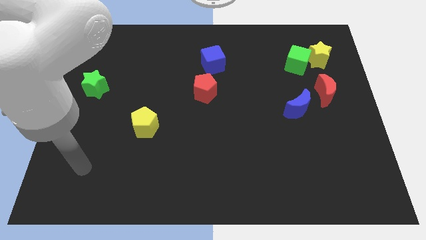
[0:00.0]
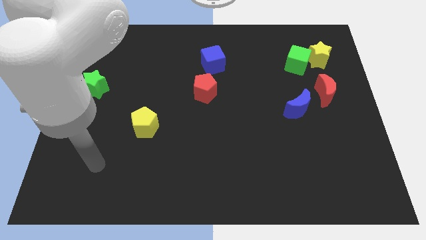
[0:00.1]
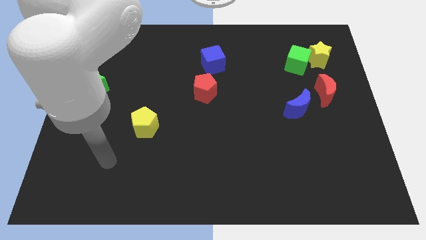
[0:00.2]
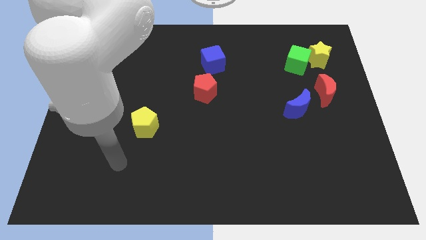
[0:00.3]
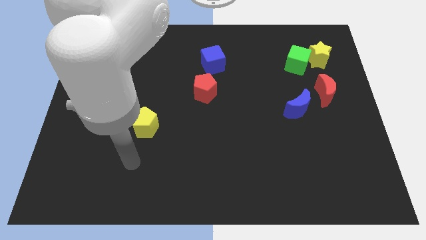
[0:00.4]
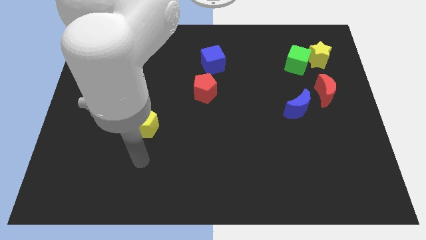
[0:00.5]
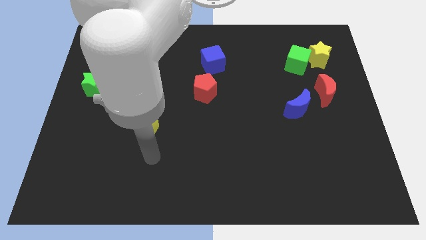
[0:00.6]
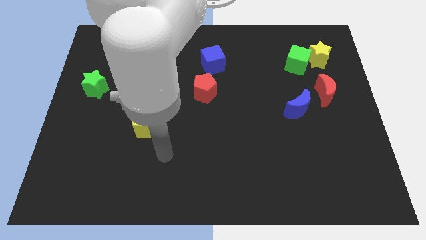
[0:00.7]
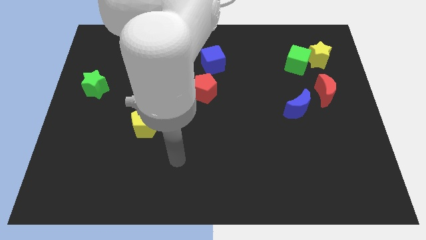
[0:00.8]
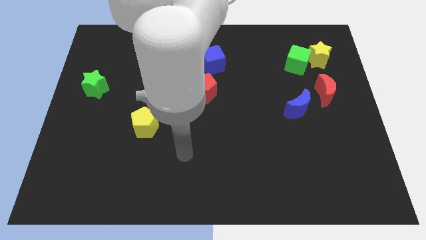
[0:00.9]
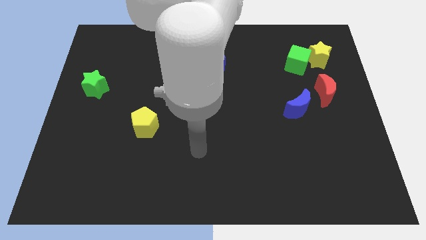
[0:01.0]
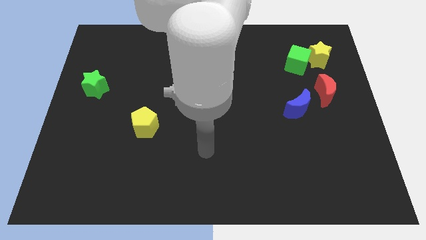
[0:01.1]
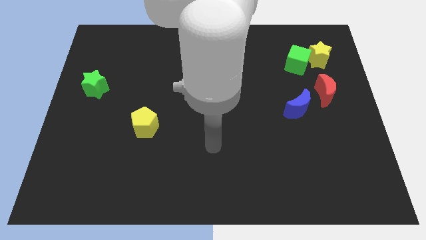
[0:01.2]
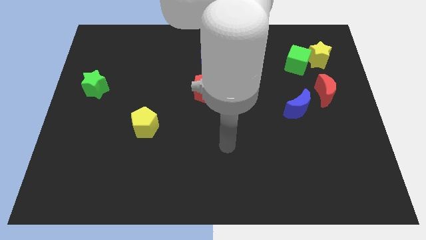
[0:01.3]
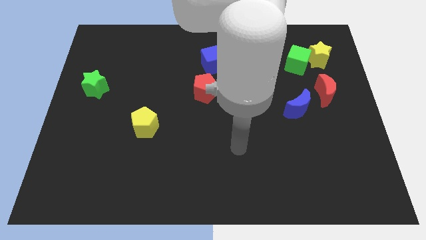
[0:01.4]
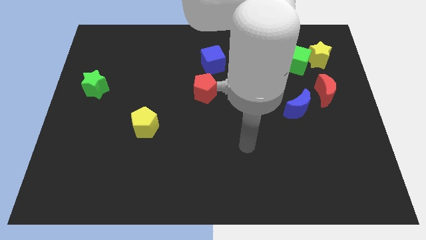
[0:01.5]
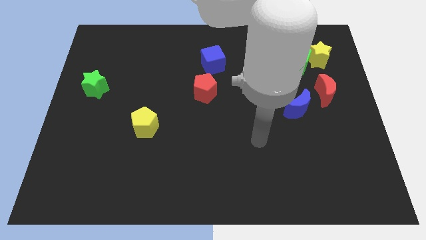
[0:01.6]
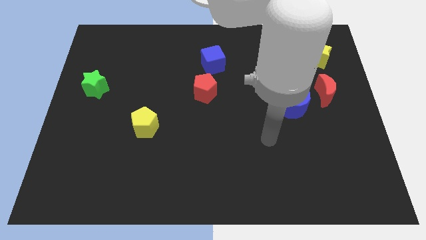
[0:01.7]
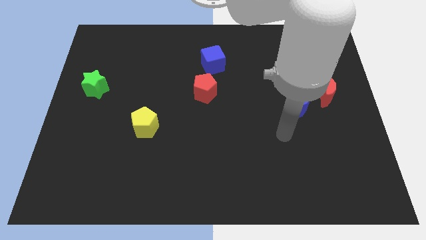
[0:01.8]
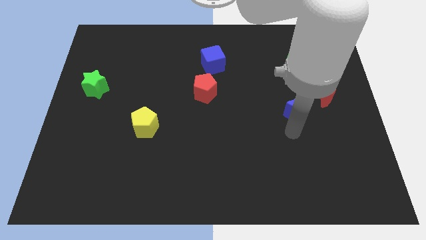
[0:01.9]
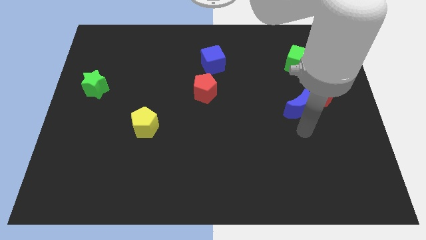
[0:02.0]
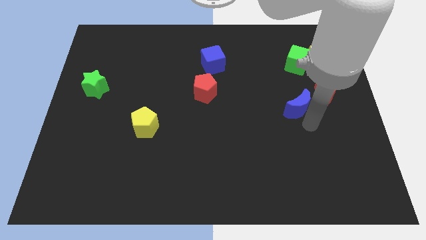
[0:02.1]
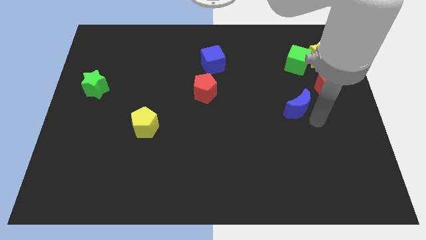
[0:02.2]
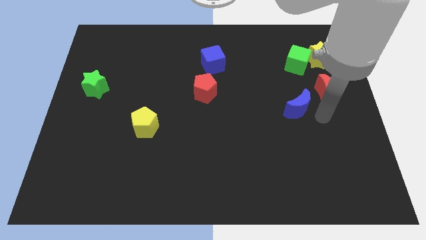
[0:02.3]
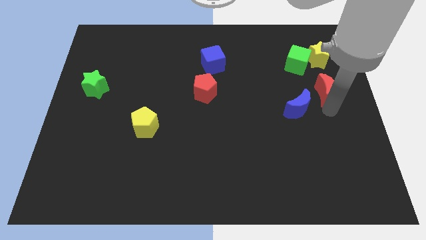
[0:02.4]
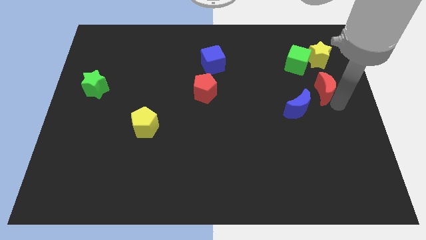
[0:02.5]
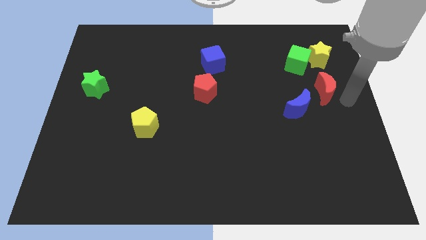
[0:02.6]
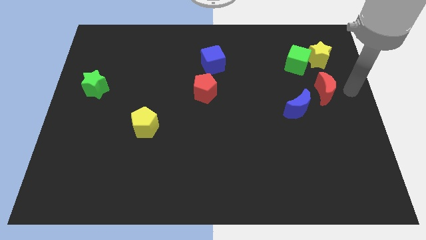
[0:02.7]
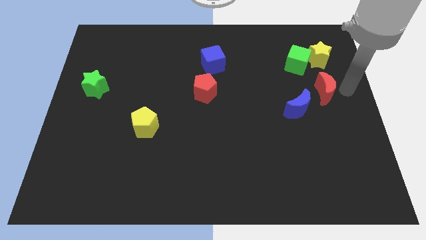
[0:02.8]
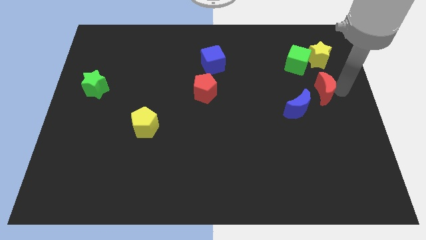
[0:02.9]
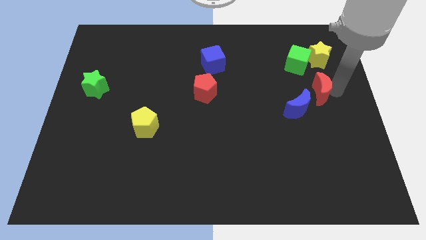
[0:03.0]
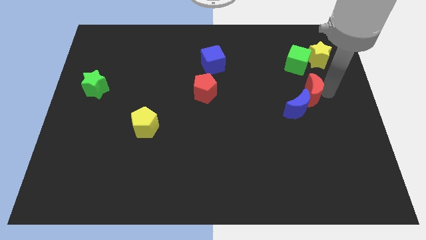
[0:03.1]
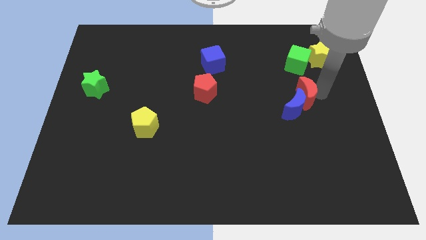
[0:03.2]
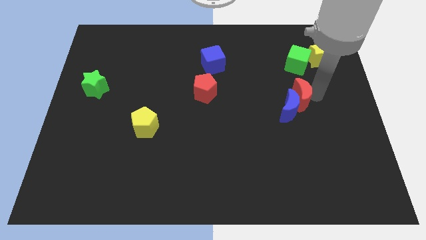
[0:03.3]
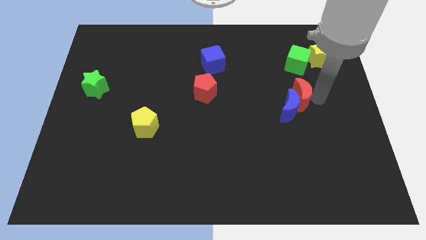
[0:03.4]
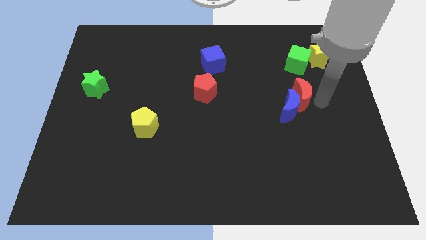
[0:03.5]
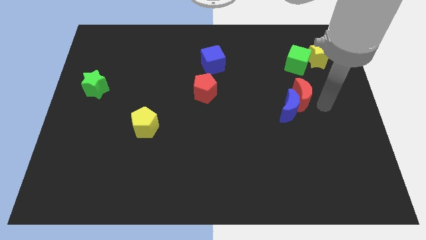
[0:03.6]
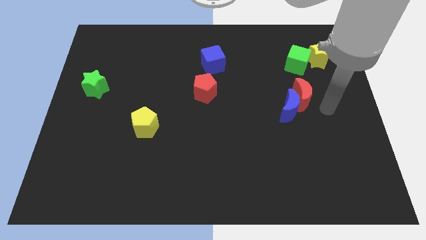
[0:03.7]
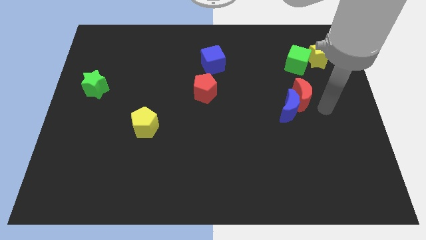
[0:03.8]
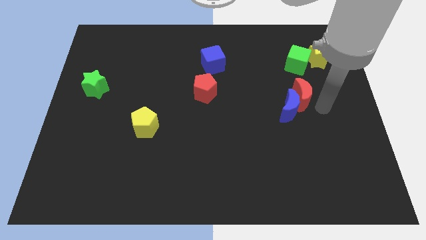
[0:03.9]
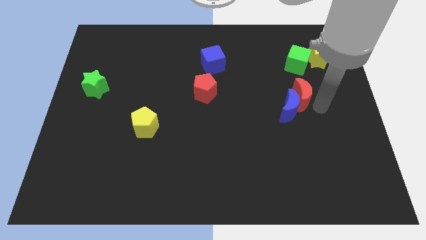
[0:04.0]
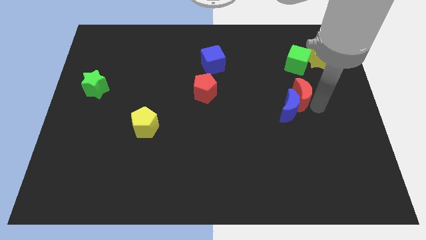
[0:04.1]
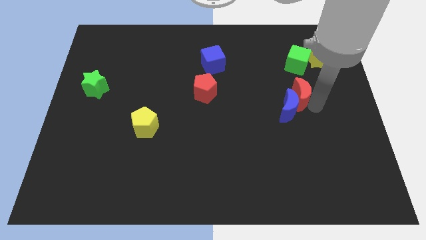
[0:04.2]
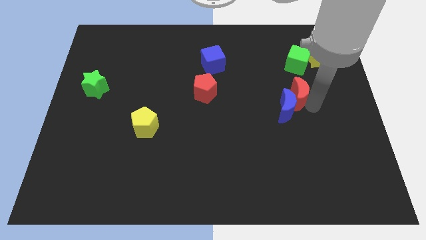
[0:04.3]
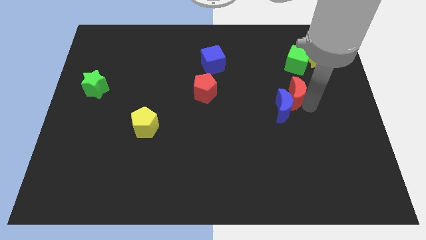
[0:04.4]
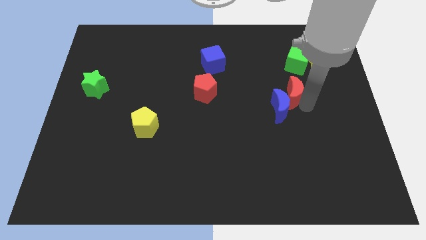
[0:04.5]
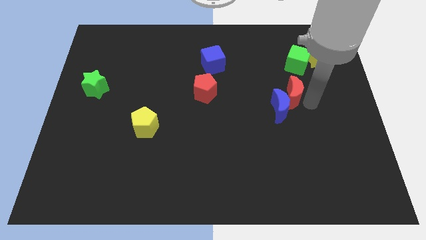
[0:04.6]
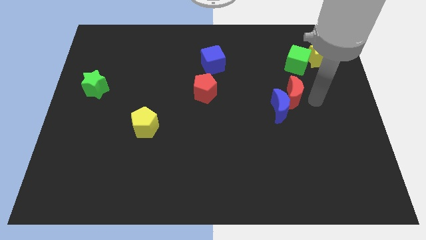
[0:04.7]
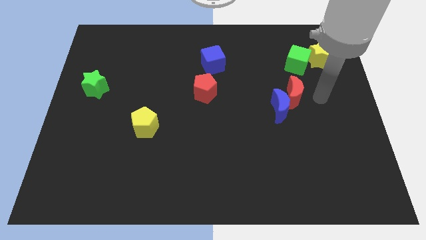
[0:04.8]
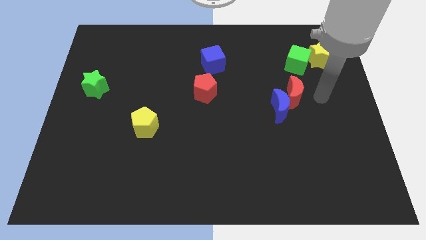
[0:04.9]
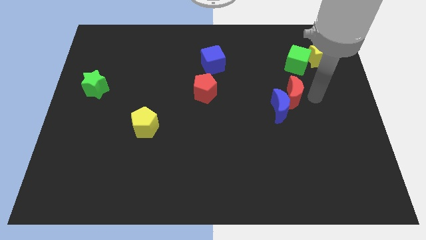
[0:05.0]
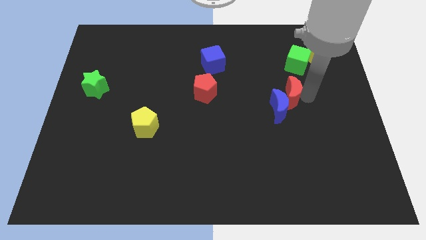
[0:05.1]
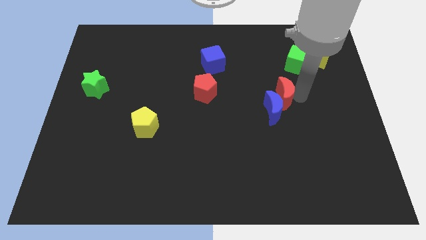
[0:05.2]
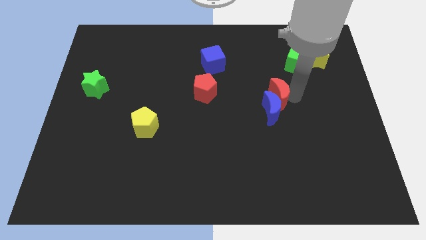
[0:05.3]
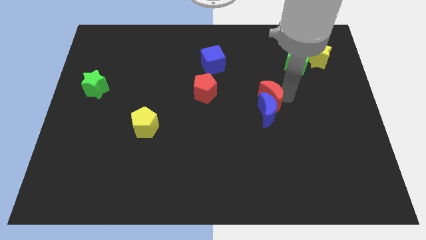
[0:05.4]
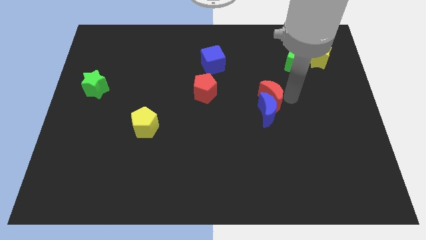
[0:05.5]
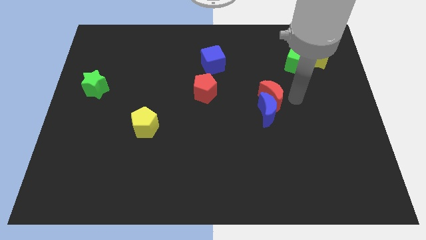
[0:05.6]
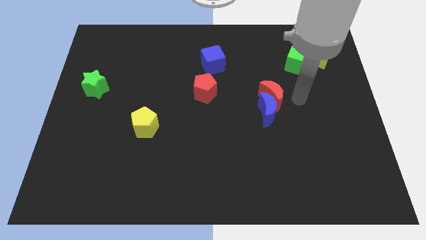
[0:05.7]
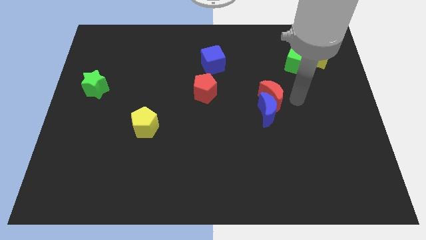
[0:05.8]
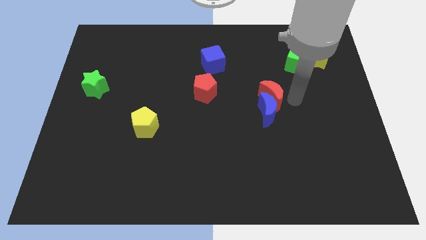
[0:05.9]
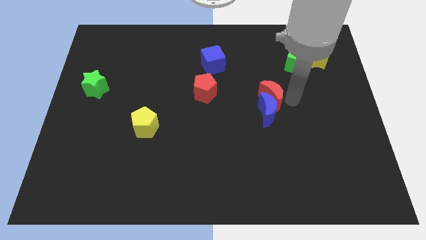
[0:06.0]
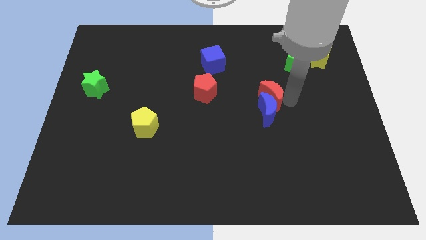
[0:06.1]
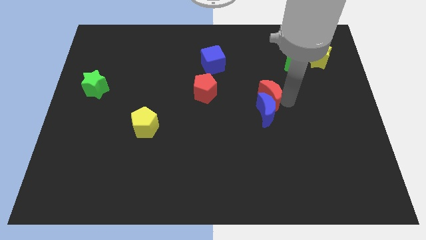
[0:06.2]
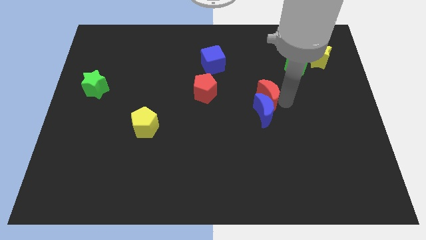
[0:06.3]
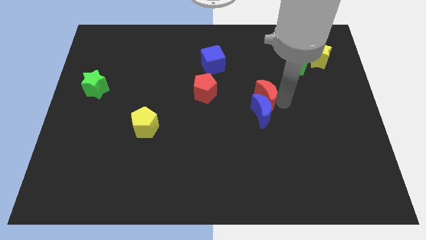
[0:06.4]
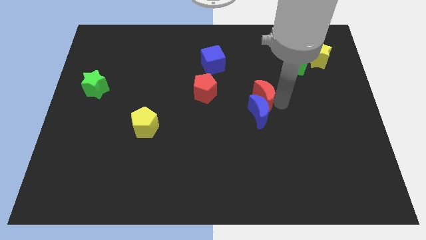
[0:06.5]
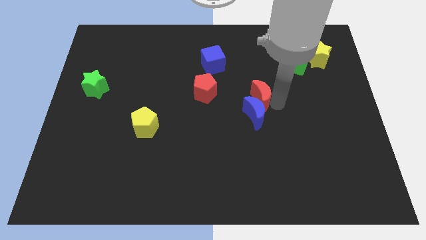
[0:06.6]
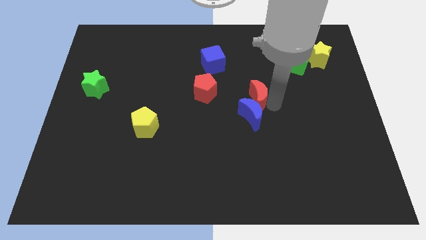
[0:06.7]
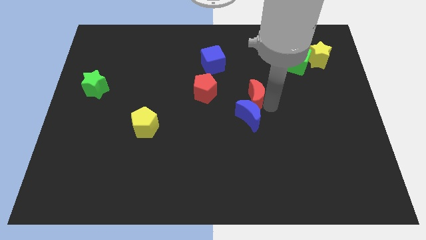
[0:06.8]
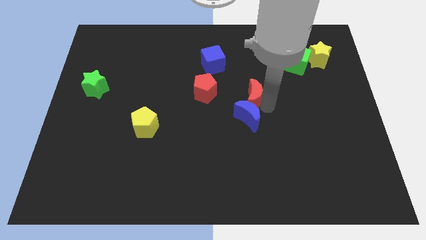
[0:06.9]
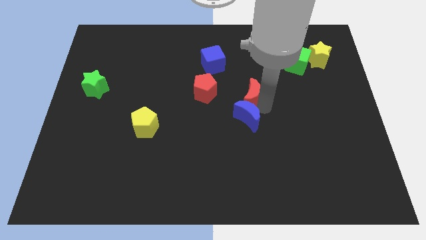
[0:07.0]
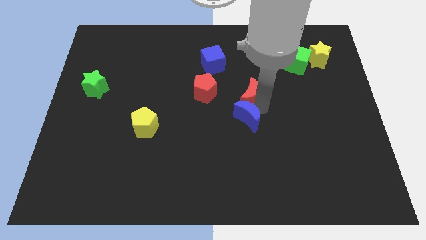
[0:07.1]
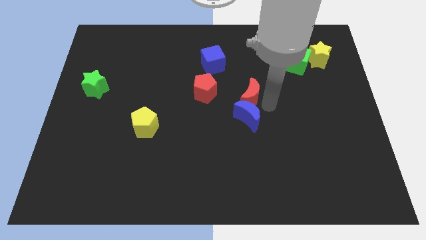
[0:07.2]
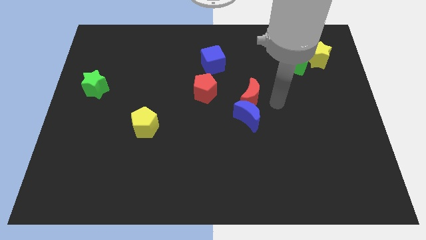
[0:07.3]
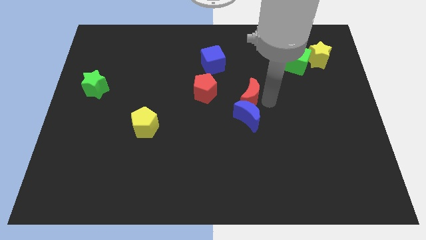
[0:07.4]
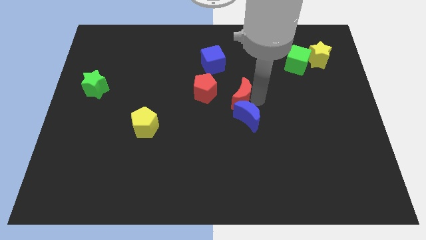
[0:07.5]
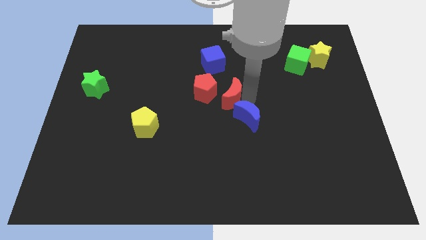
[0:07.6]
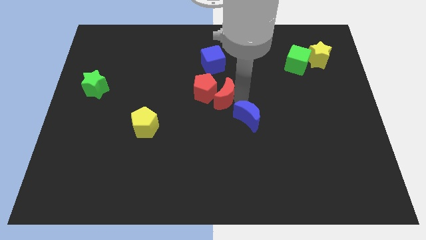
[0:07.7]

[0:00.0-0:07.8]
put the red moon to the red pentagon
